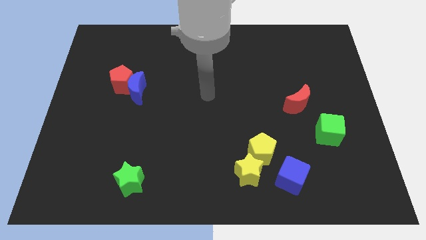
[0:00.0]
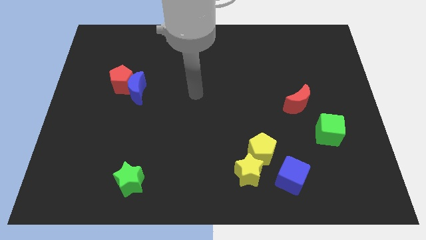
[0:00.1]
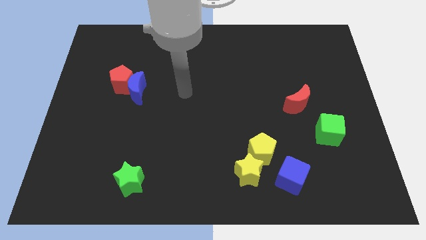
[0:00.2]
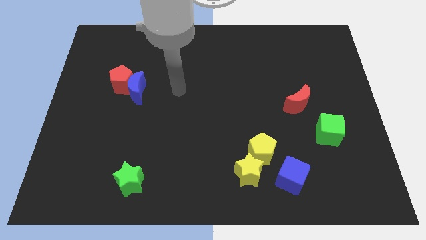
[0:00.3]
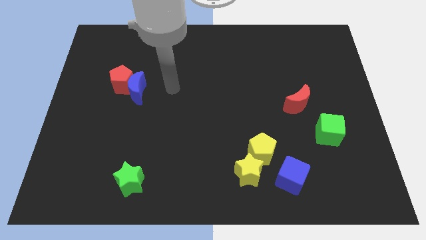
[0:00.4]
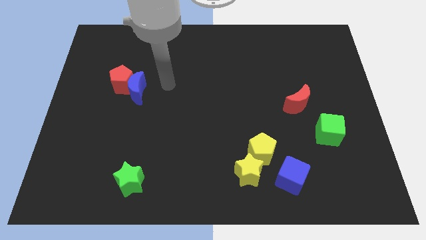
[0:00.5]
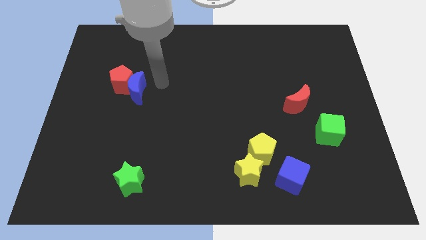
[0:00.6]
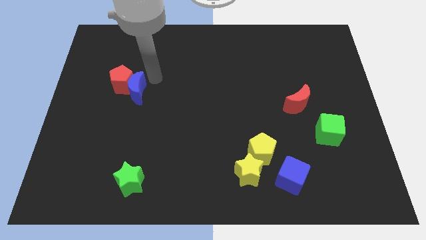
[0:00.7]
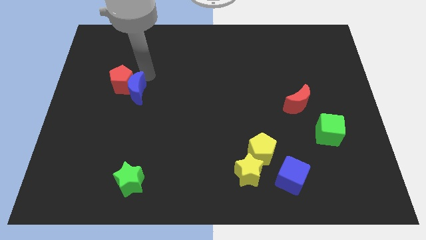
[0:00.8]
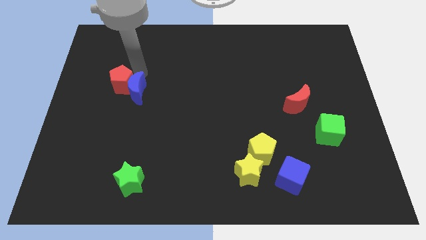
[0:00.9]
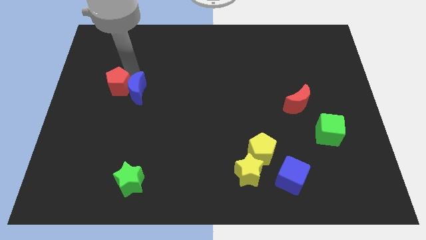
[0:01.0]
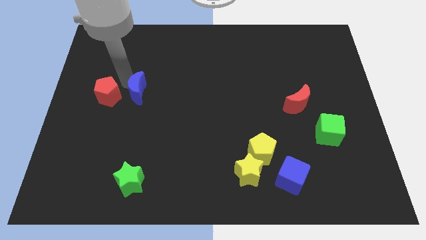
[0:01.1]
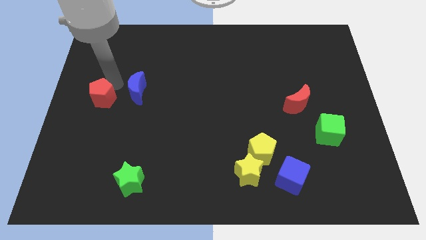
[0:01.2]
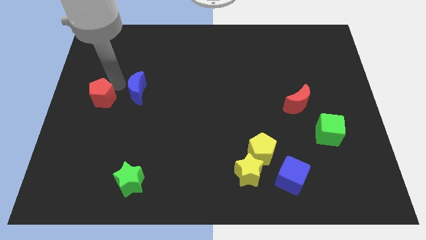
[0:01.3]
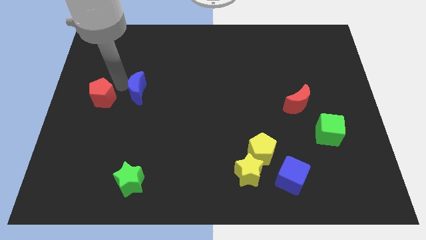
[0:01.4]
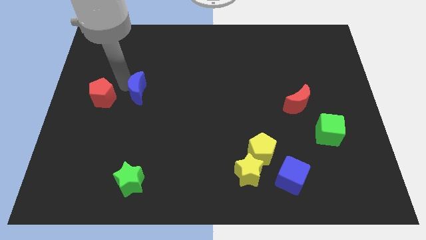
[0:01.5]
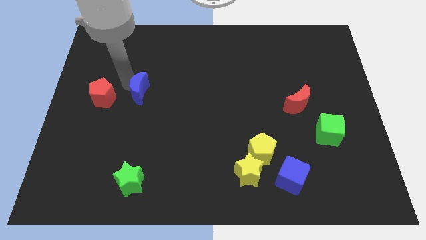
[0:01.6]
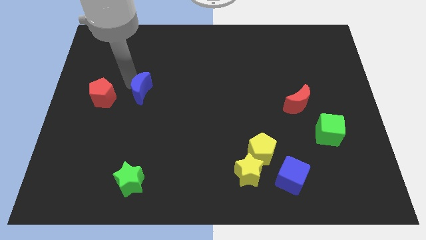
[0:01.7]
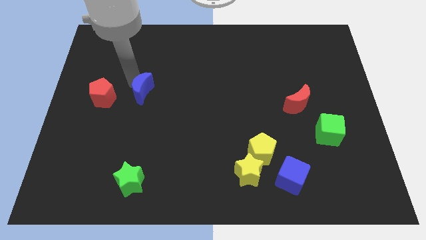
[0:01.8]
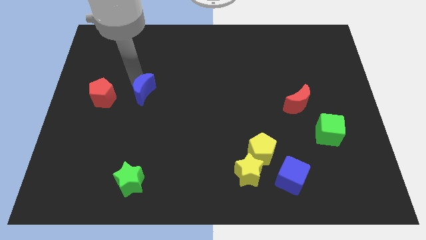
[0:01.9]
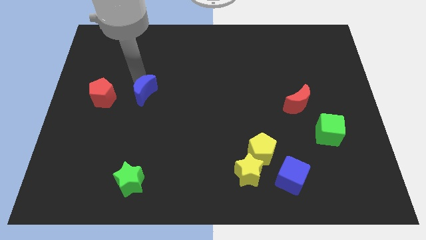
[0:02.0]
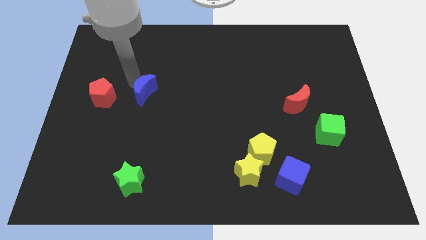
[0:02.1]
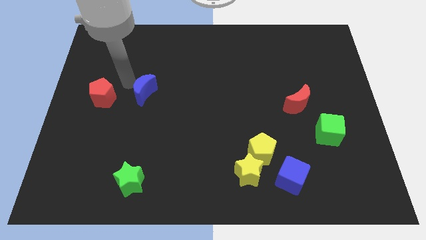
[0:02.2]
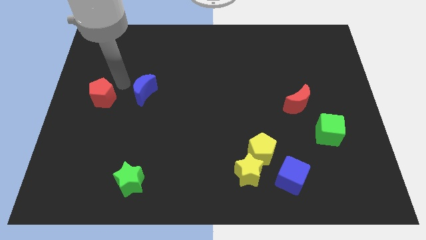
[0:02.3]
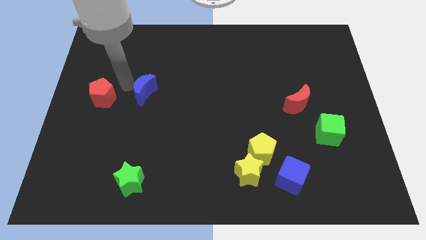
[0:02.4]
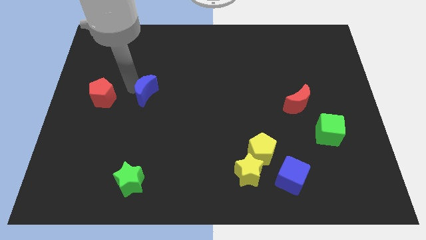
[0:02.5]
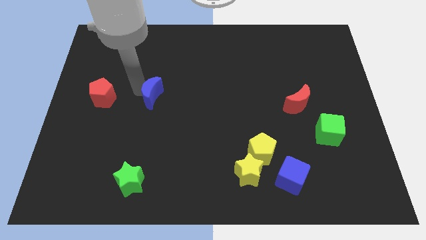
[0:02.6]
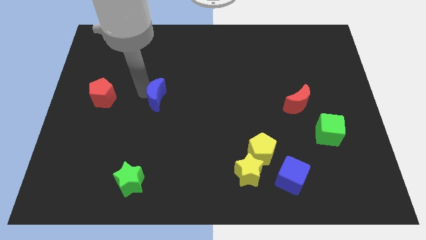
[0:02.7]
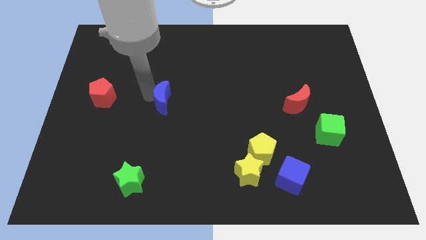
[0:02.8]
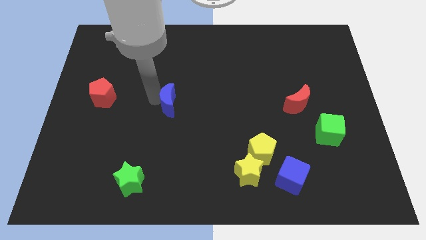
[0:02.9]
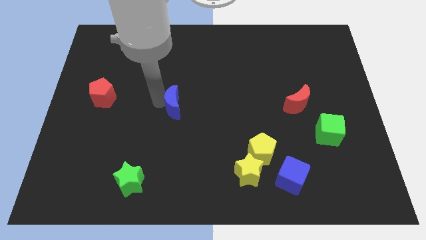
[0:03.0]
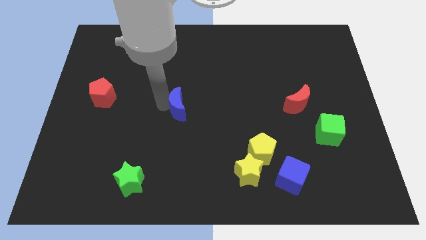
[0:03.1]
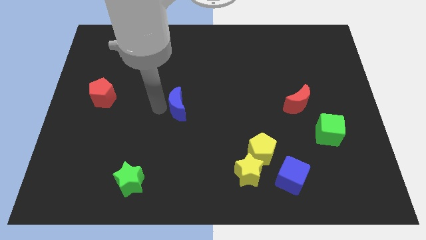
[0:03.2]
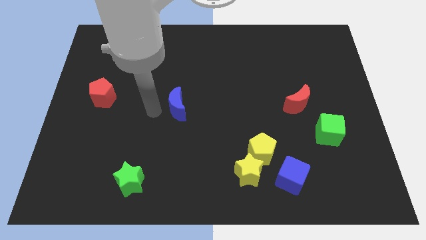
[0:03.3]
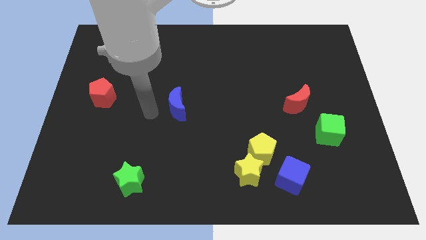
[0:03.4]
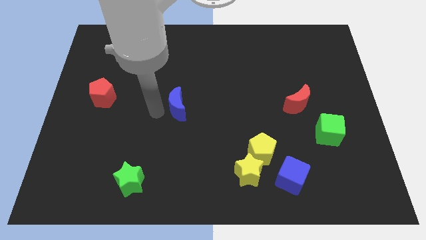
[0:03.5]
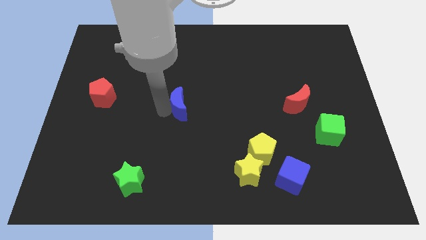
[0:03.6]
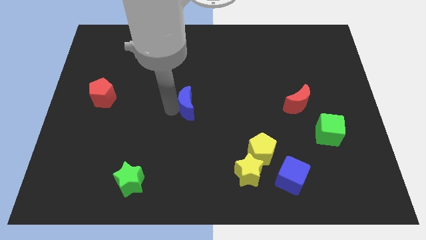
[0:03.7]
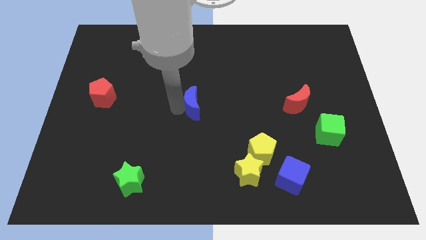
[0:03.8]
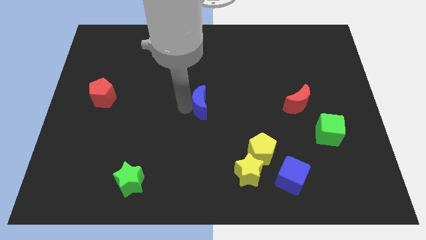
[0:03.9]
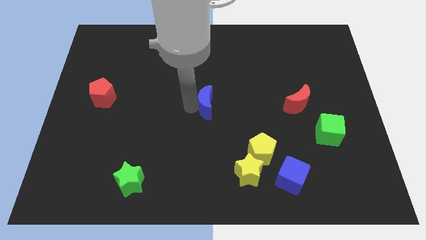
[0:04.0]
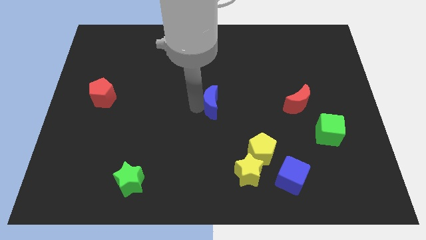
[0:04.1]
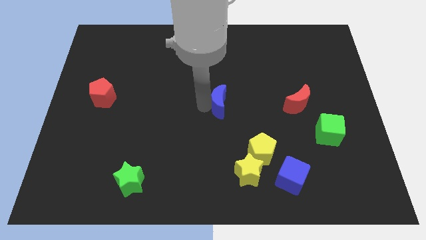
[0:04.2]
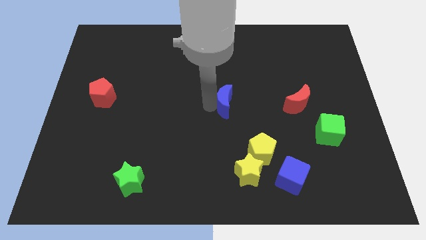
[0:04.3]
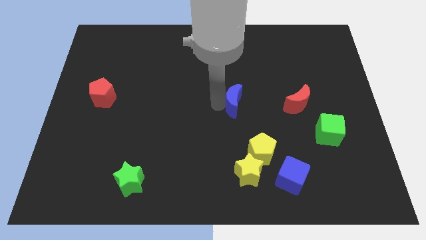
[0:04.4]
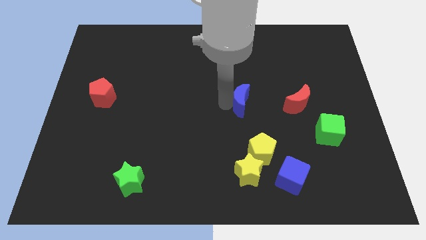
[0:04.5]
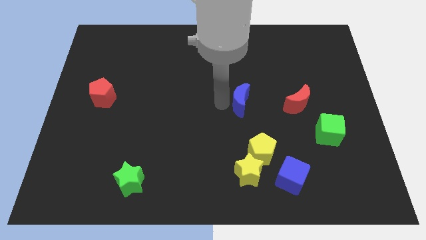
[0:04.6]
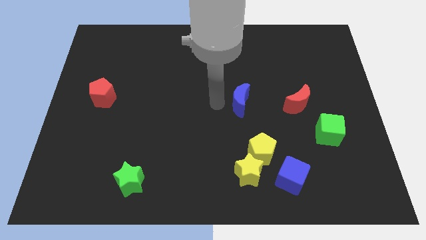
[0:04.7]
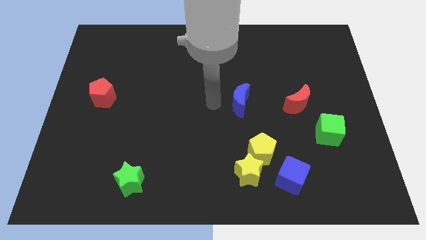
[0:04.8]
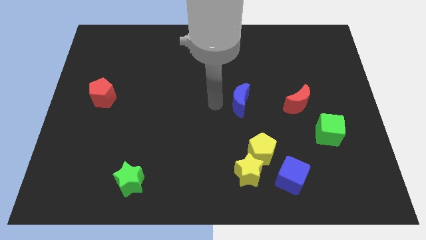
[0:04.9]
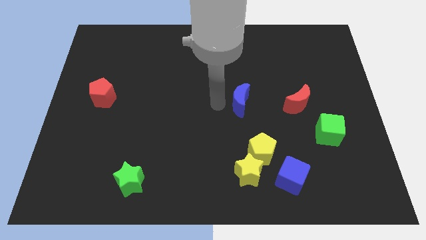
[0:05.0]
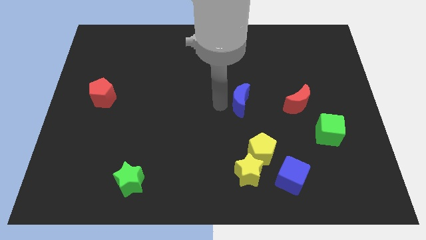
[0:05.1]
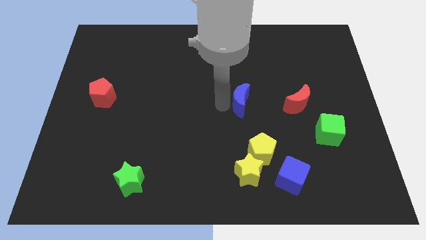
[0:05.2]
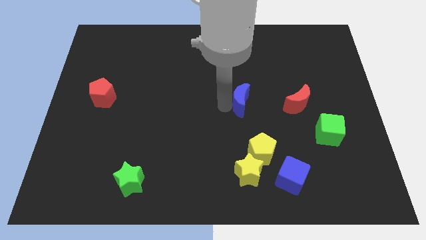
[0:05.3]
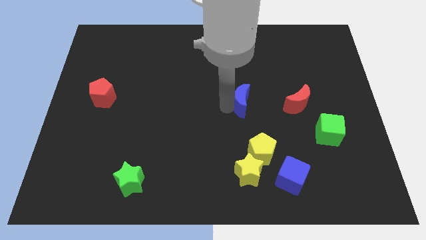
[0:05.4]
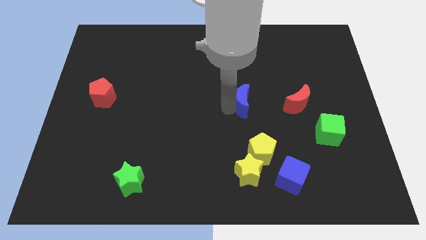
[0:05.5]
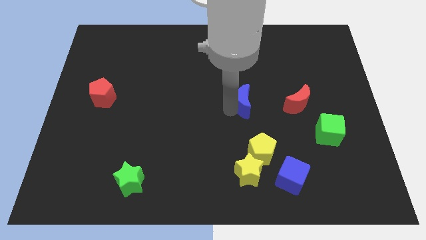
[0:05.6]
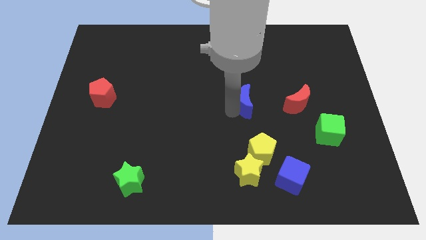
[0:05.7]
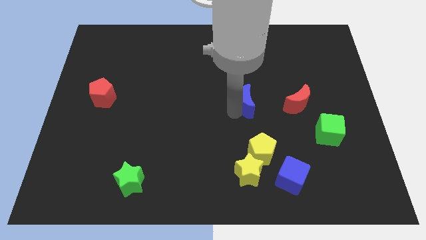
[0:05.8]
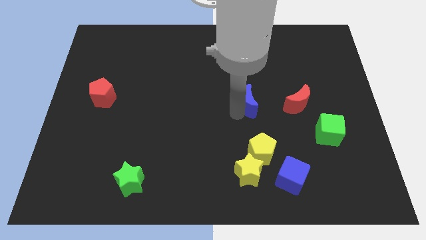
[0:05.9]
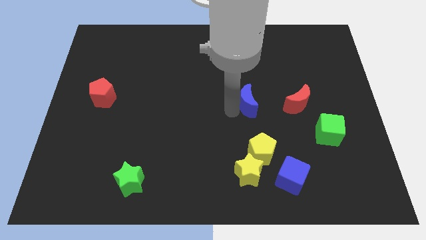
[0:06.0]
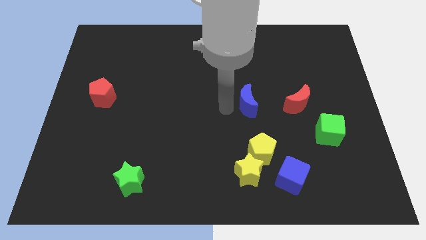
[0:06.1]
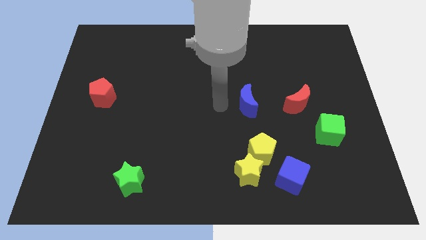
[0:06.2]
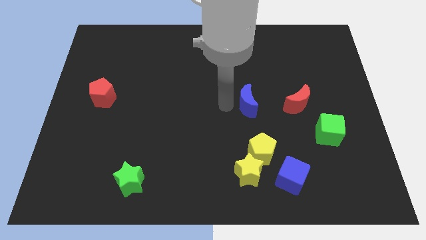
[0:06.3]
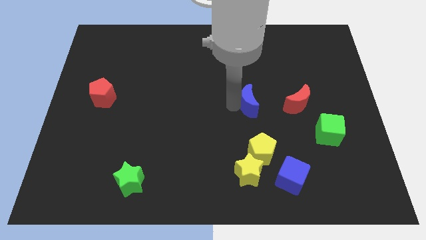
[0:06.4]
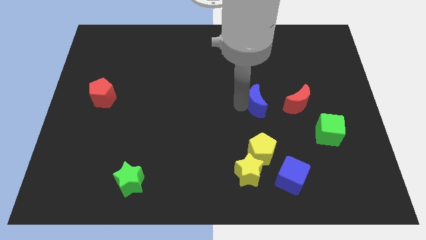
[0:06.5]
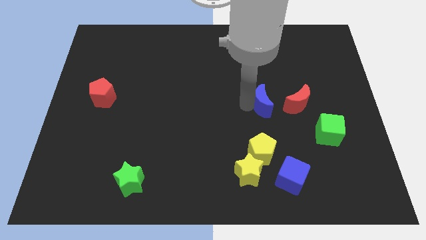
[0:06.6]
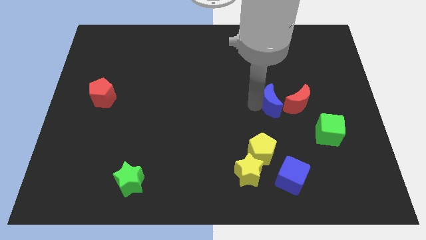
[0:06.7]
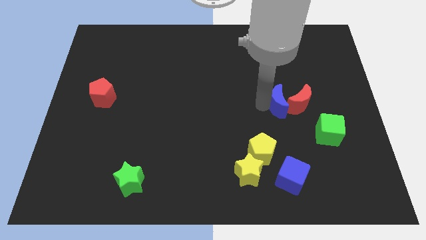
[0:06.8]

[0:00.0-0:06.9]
slide the blue moon close to the red moon
